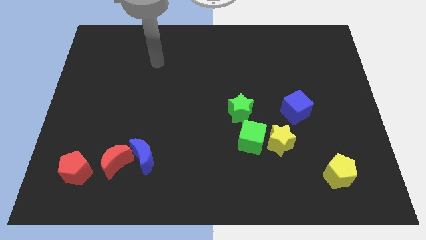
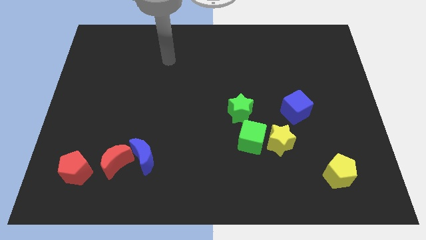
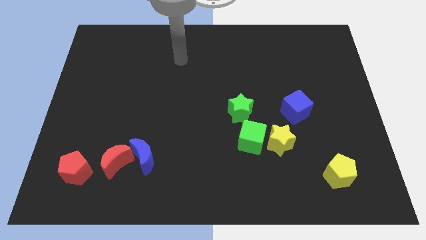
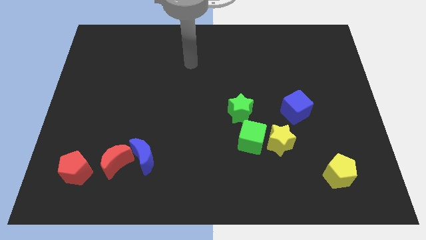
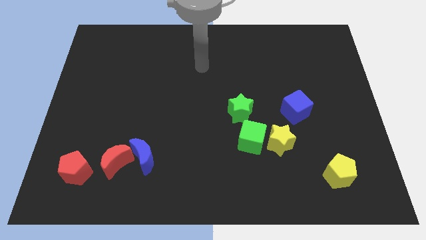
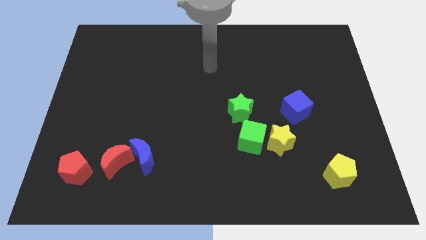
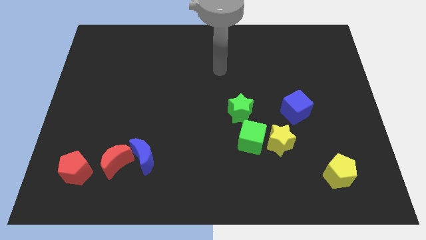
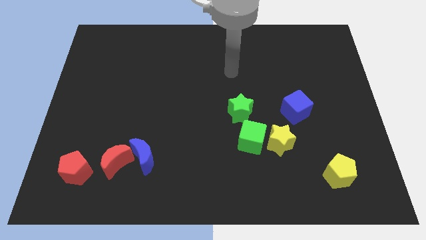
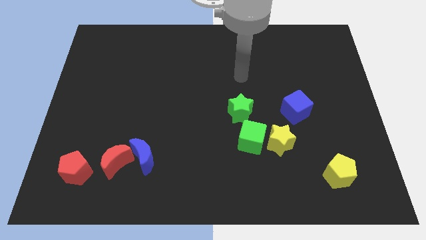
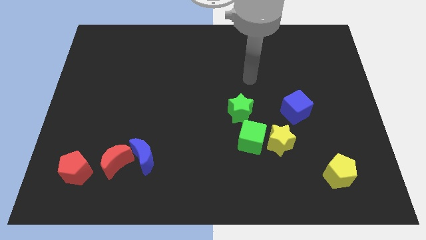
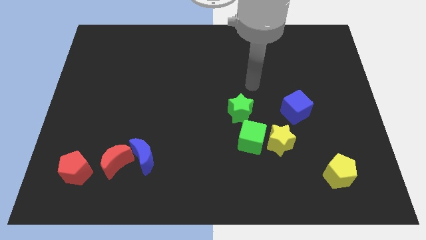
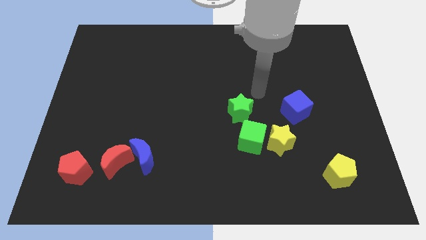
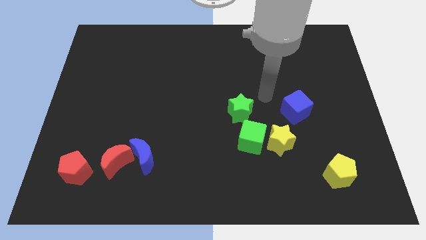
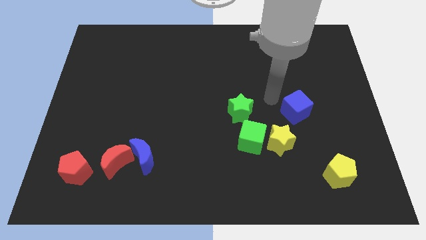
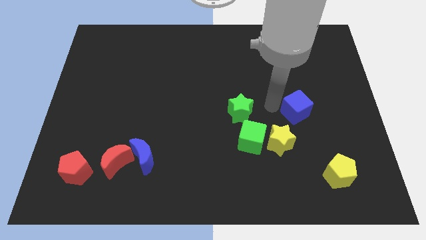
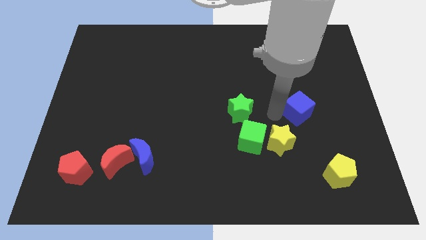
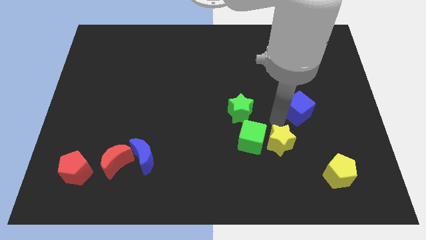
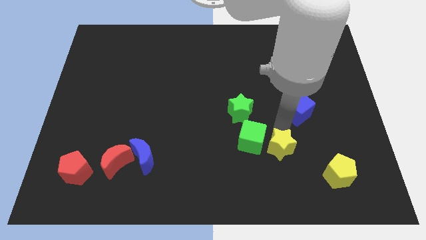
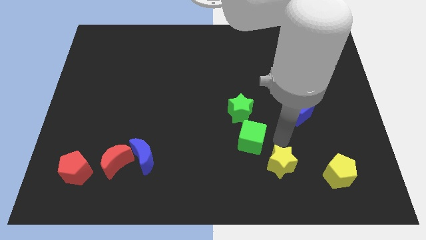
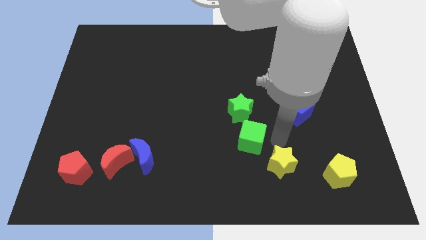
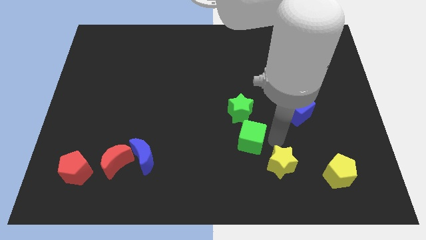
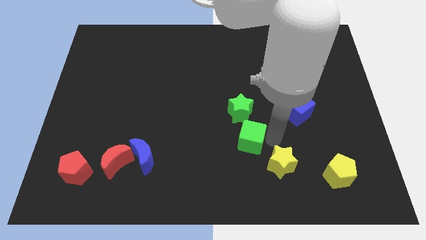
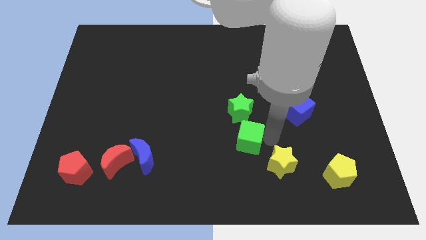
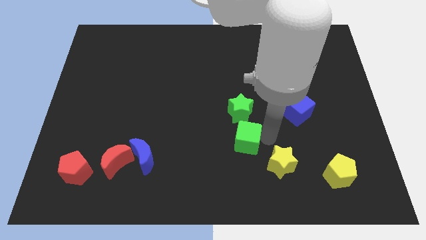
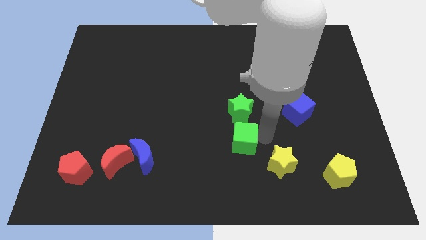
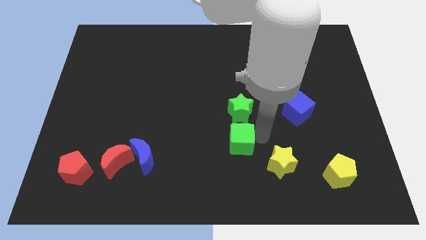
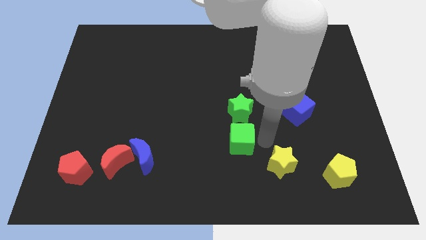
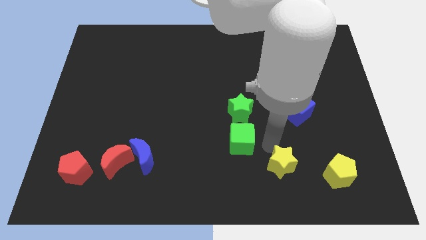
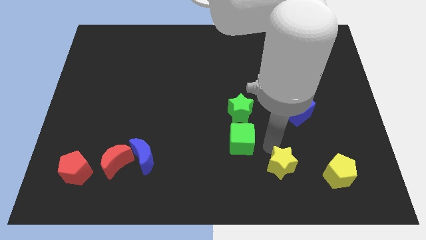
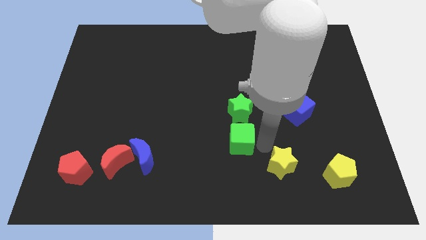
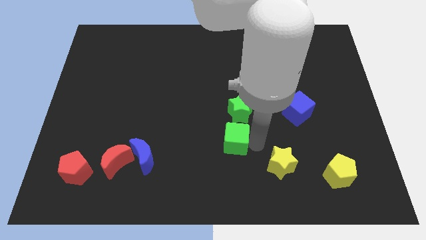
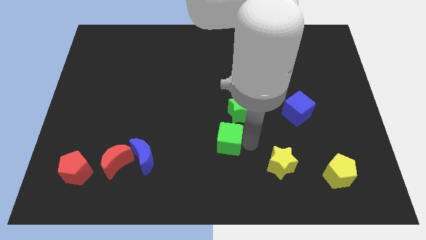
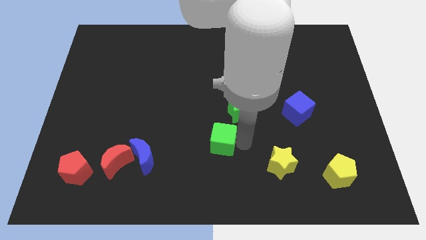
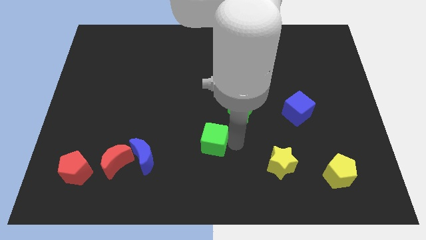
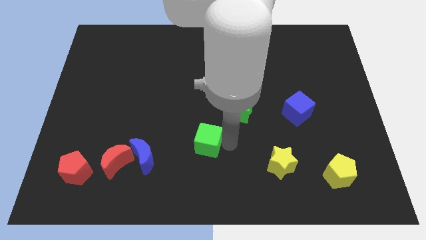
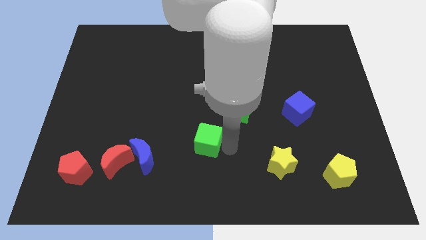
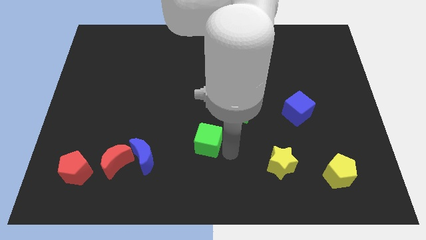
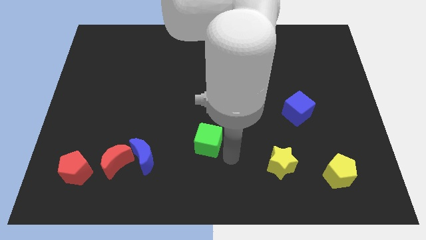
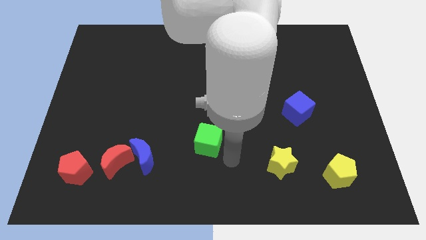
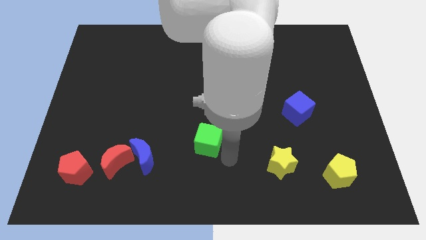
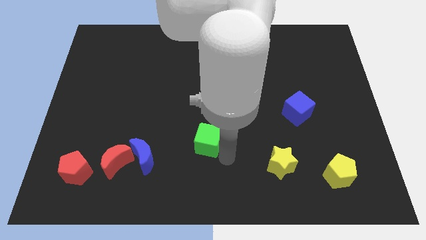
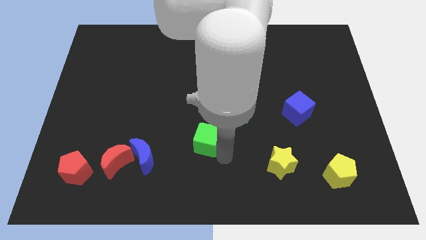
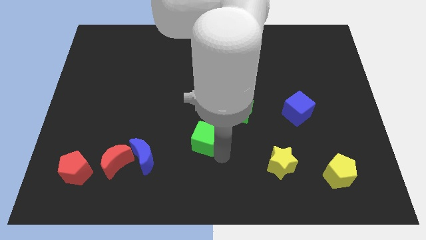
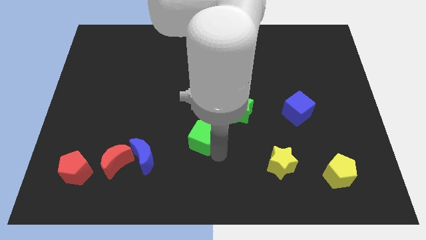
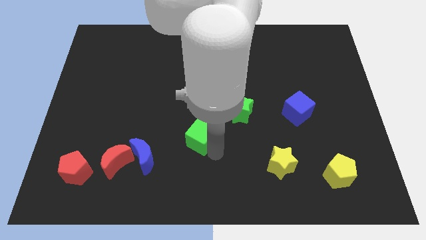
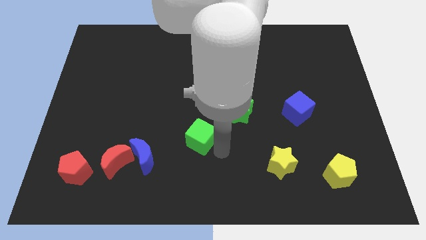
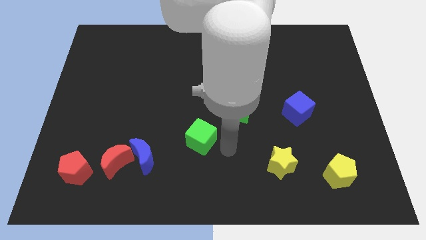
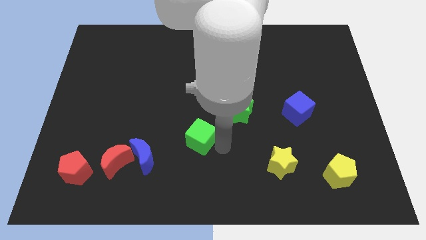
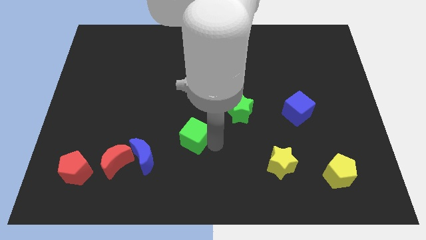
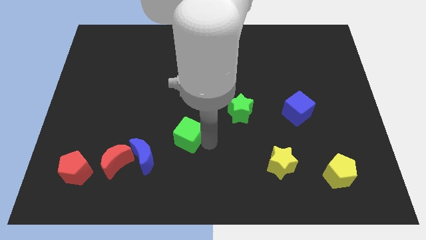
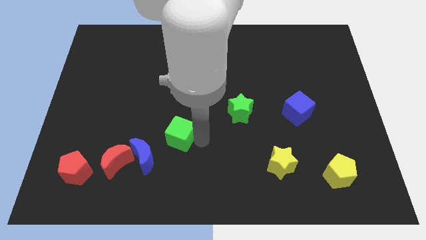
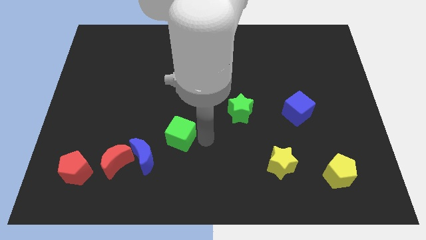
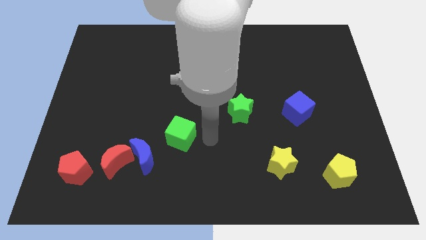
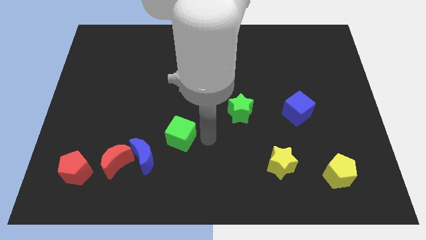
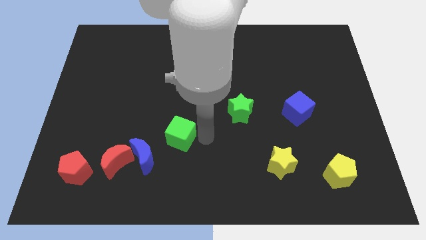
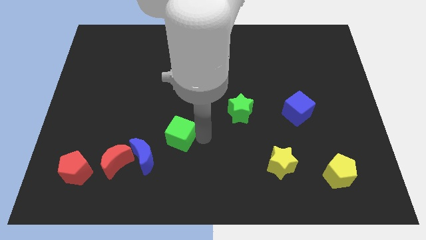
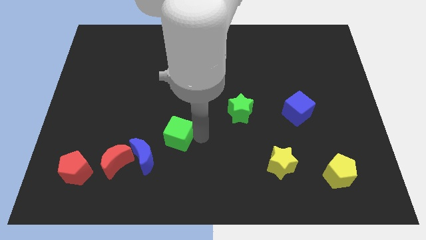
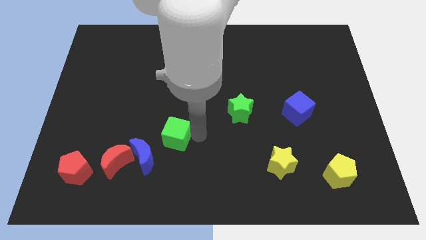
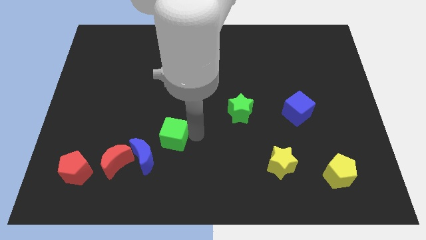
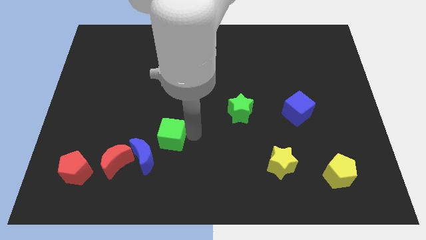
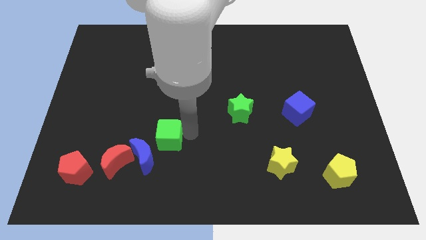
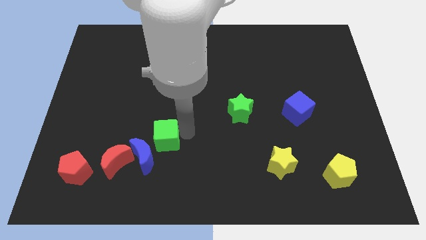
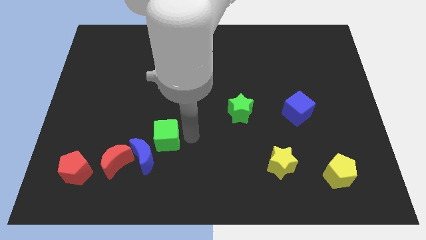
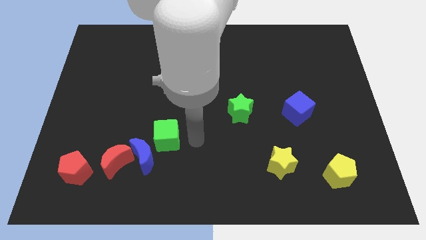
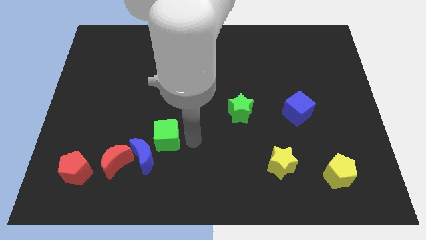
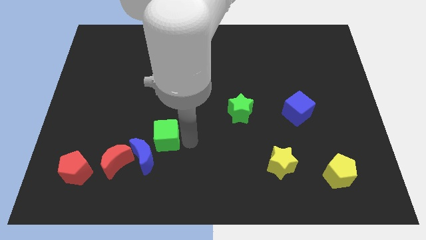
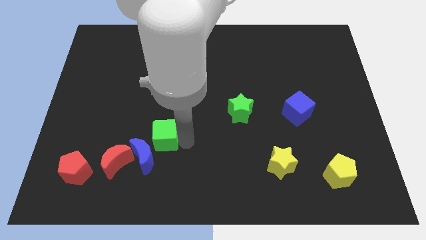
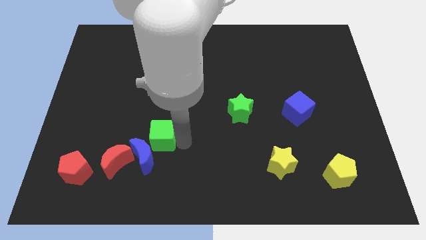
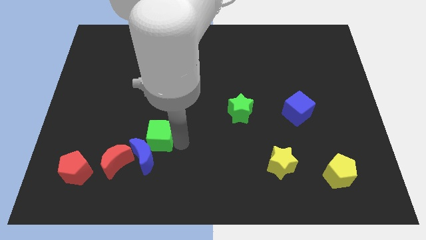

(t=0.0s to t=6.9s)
slide the green cube to the left

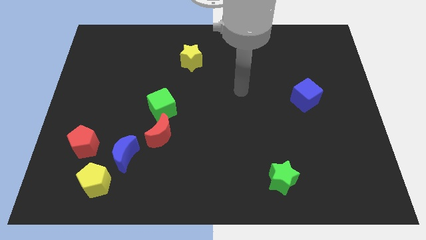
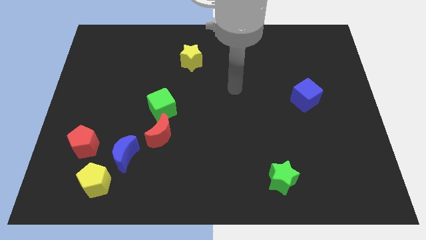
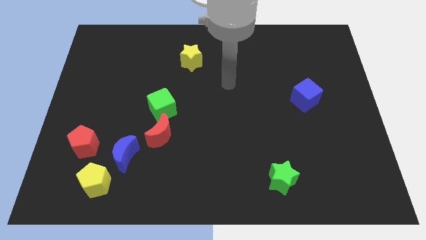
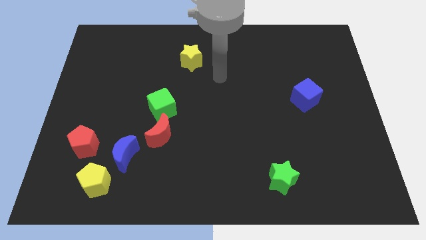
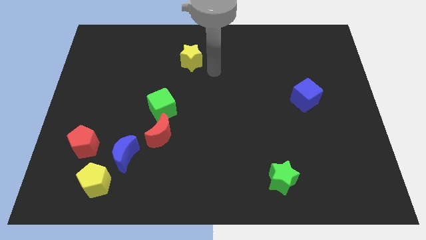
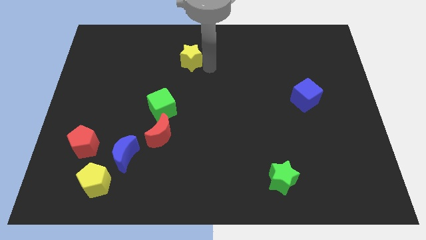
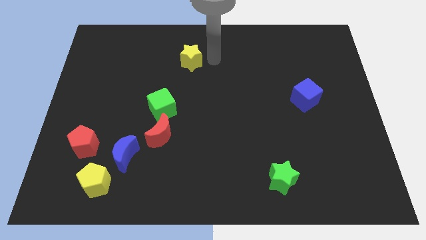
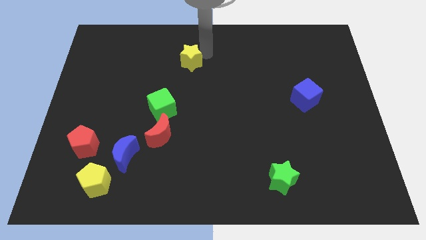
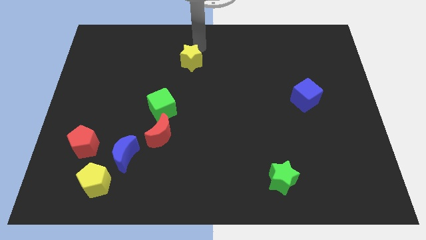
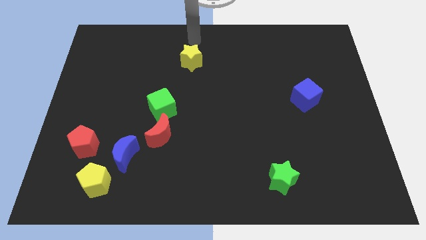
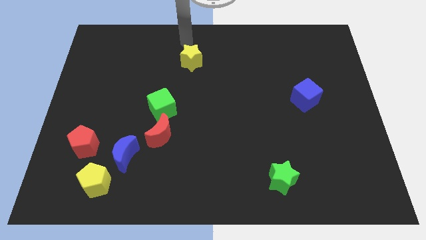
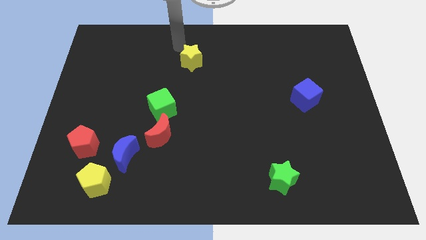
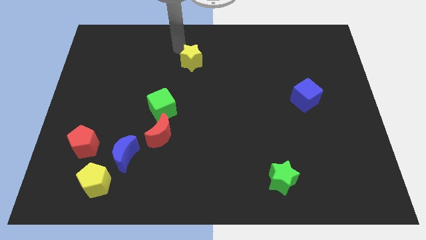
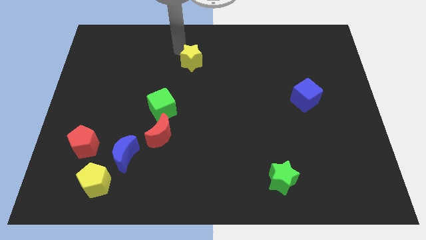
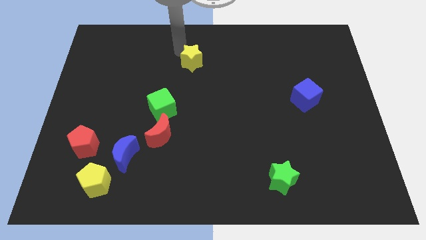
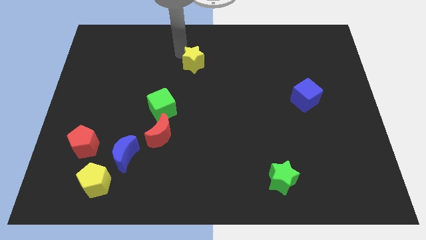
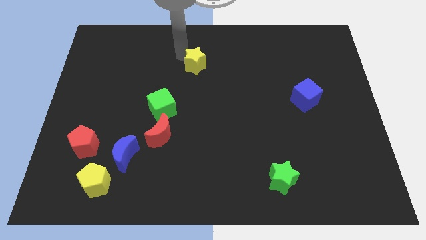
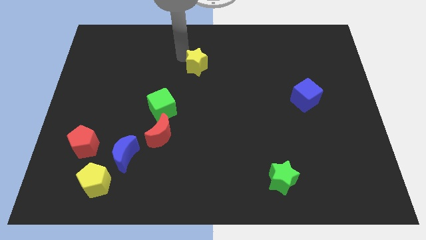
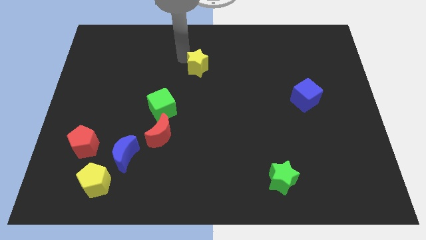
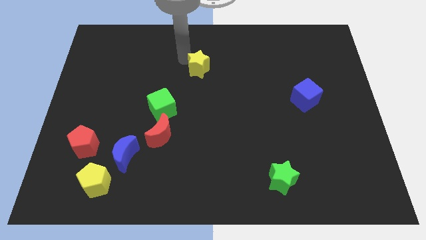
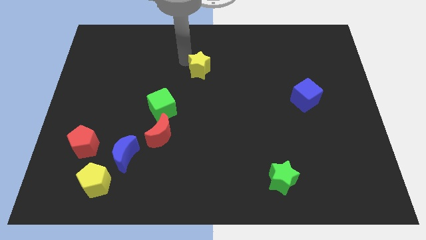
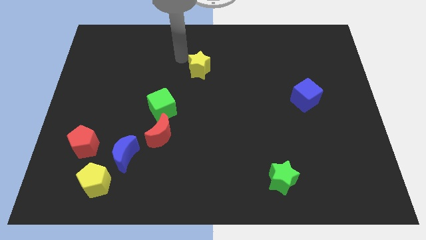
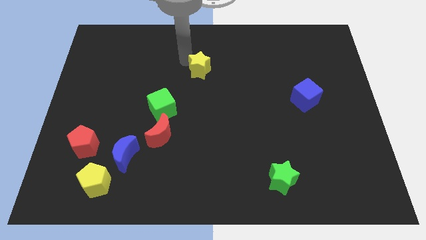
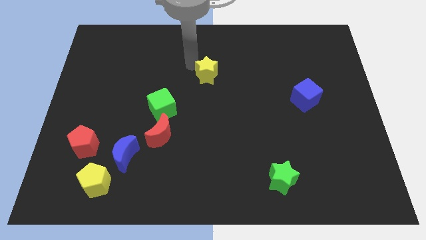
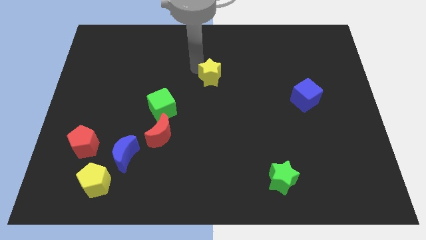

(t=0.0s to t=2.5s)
move the yellow star somewhat downwards and right
